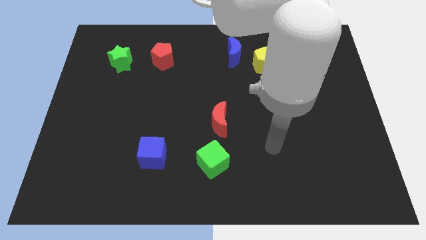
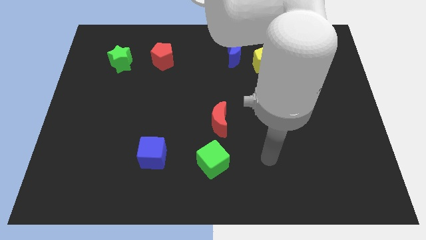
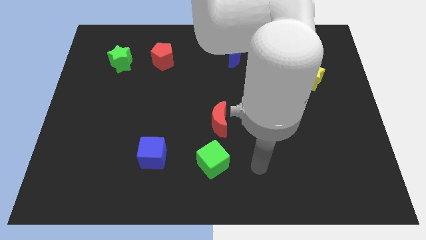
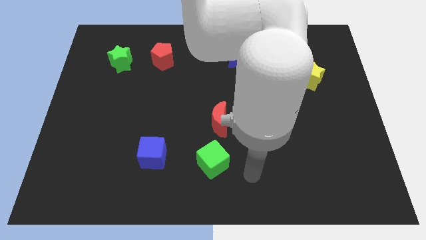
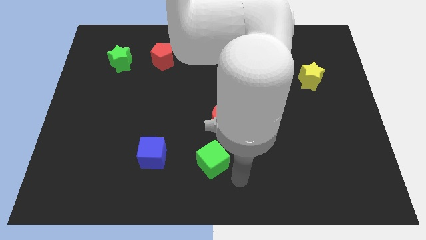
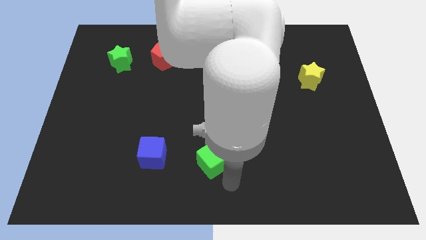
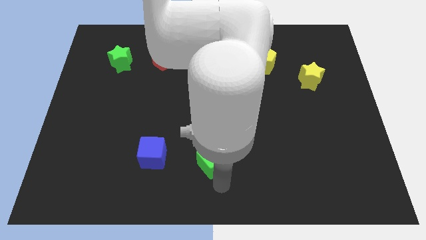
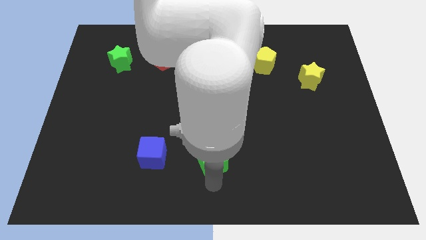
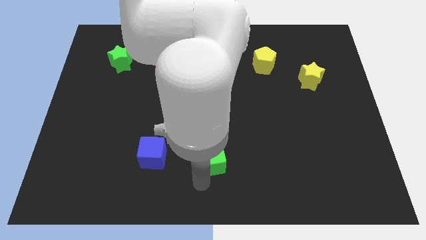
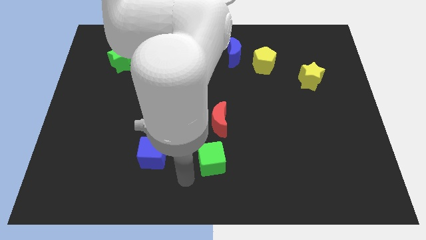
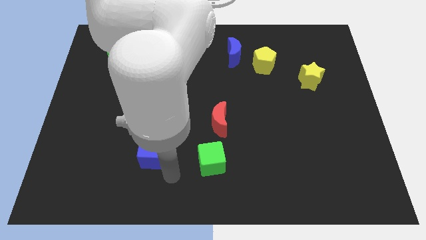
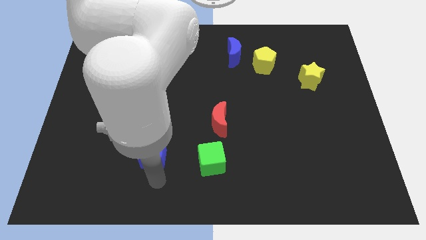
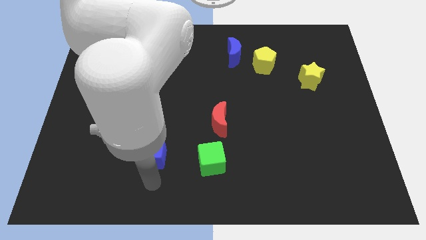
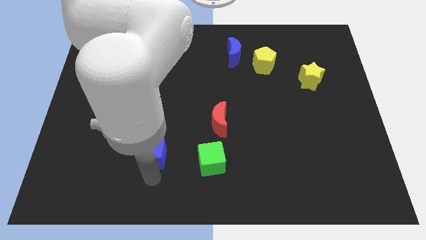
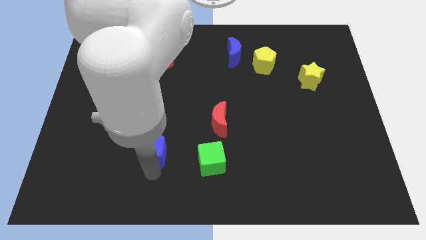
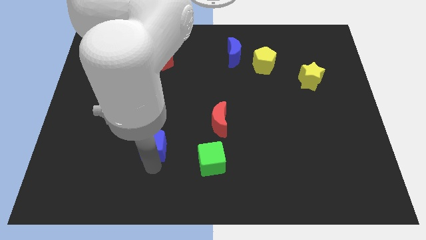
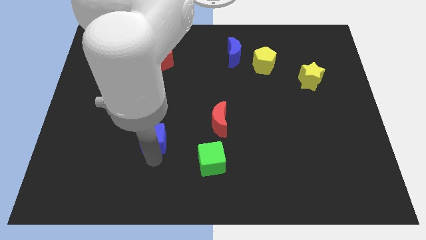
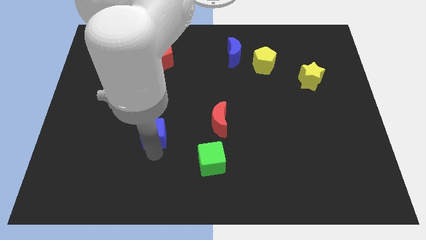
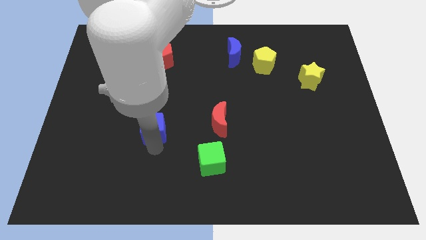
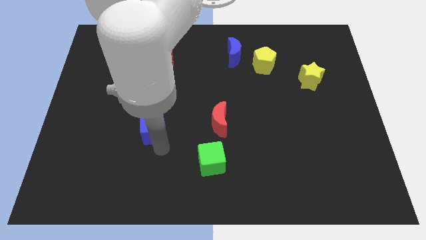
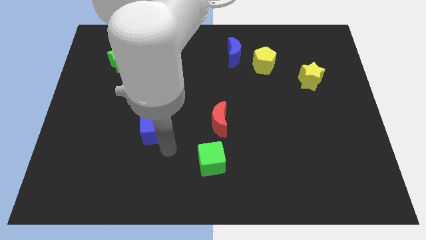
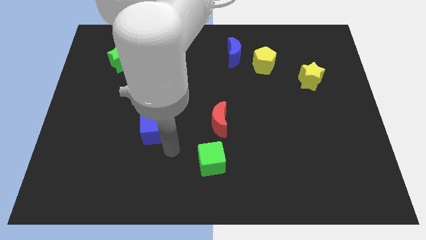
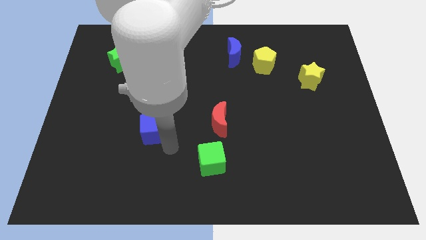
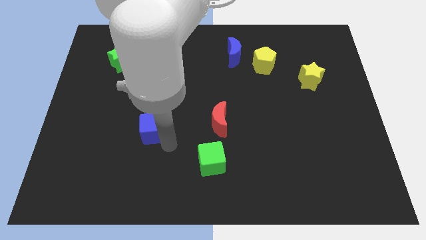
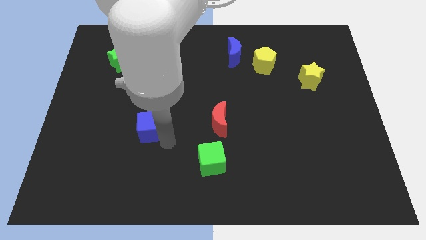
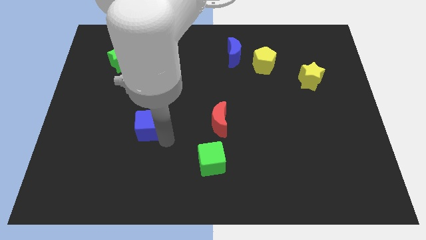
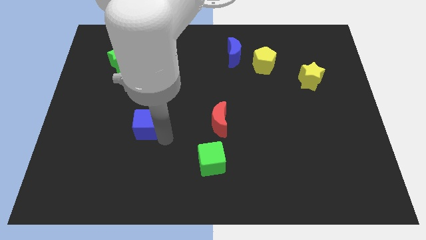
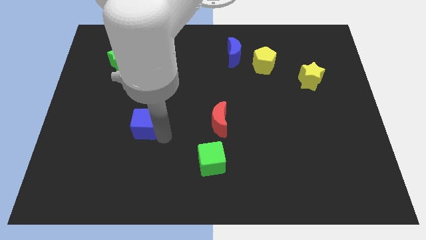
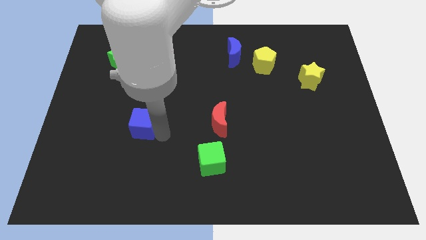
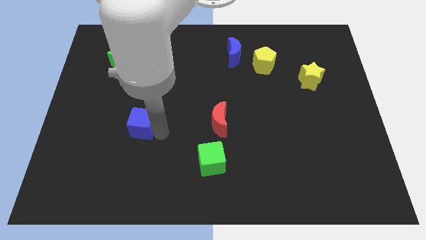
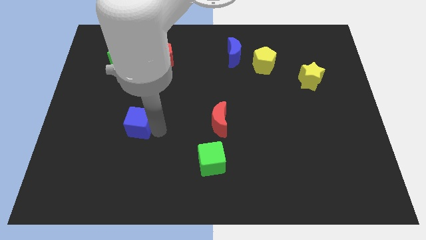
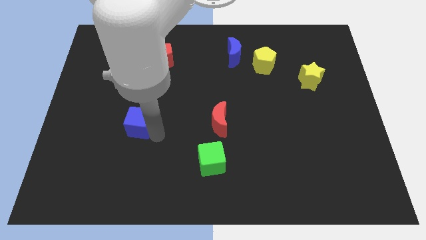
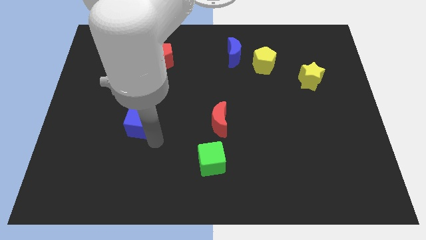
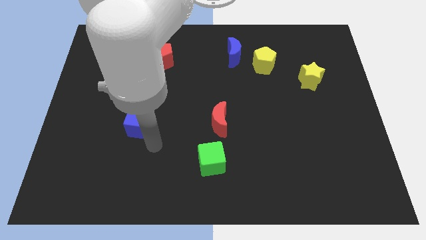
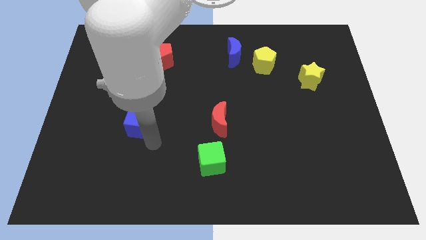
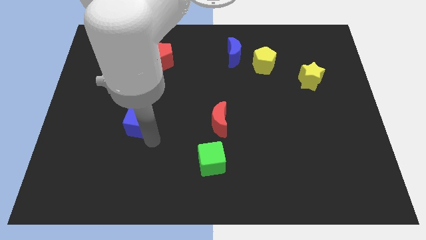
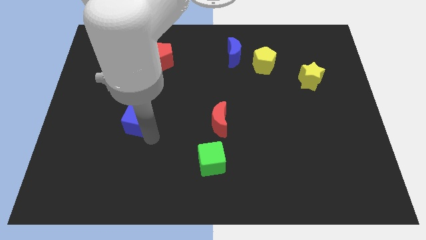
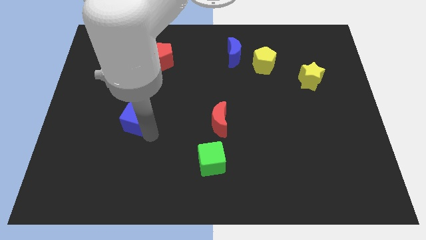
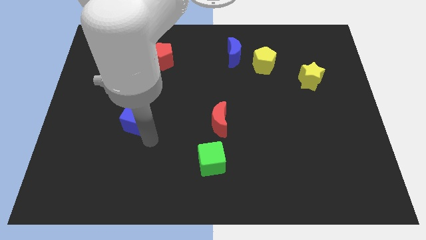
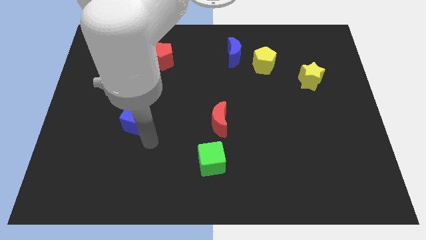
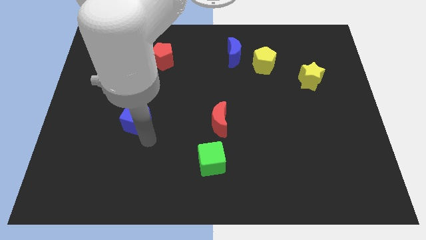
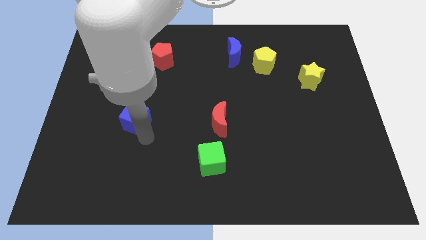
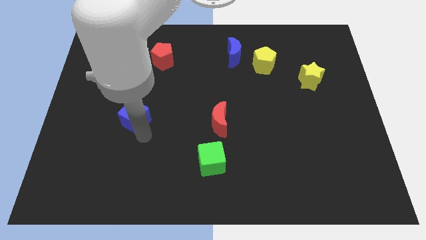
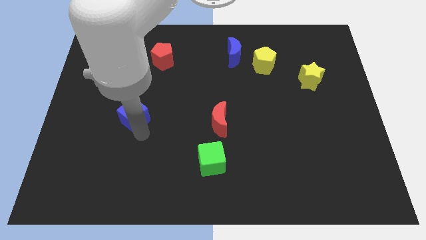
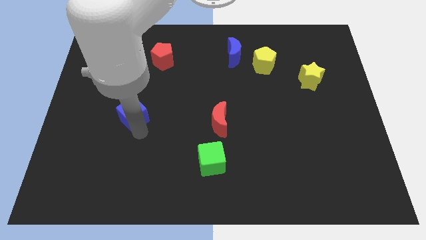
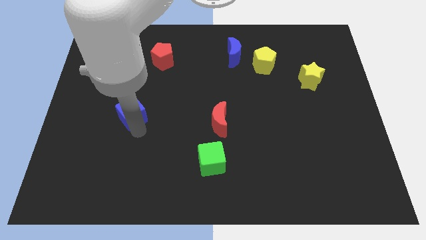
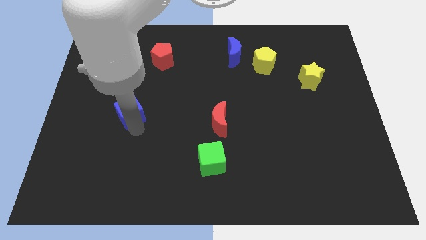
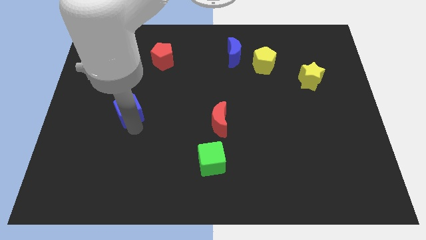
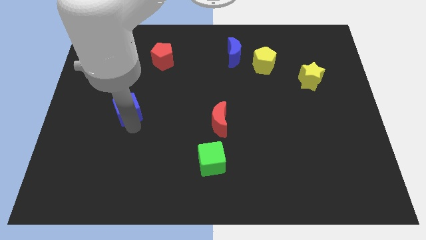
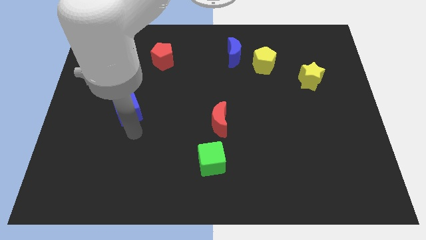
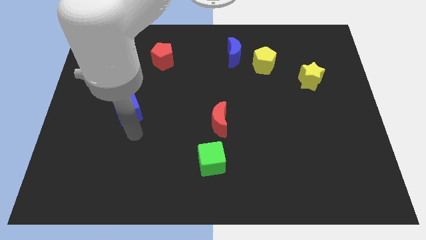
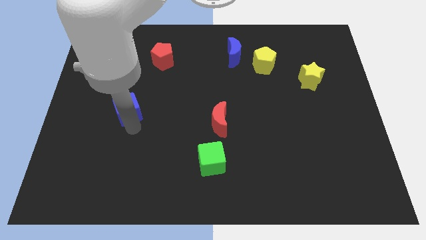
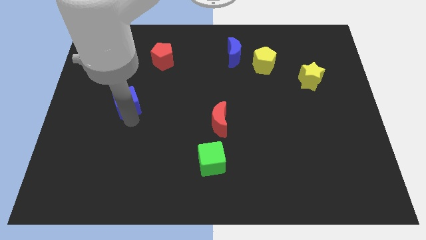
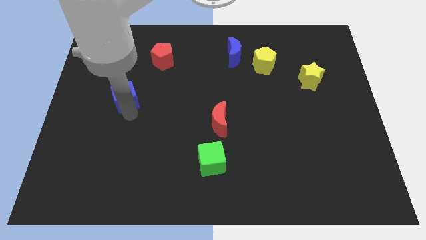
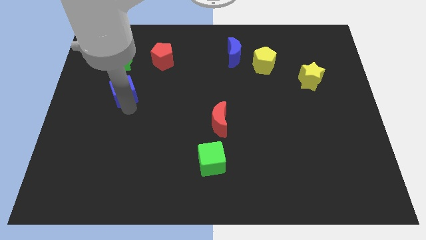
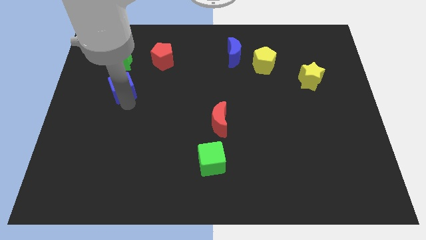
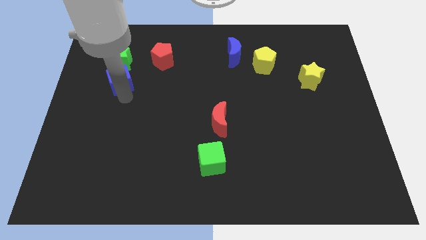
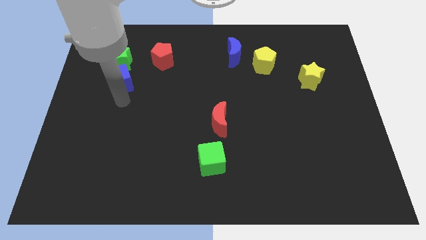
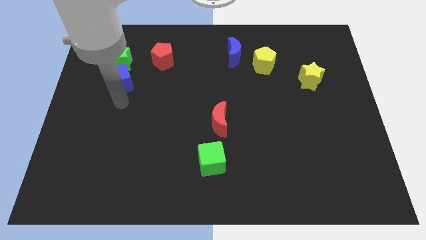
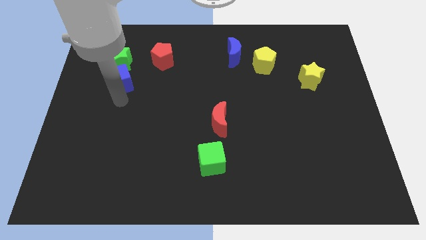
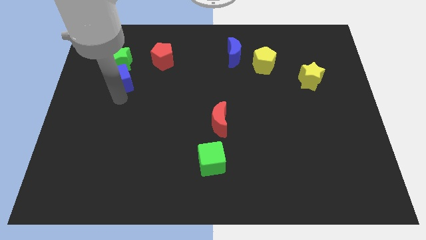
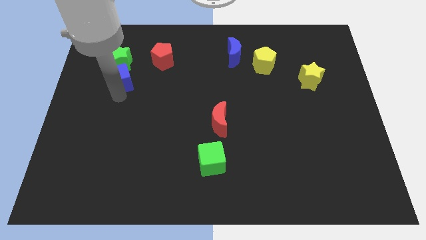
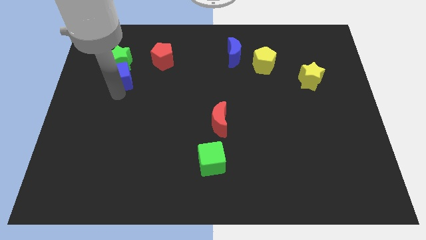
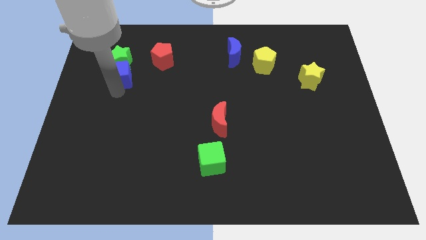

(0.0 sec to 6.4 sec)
put the blue cube towards the green star

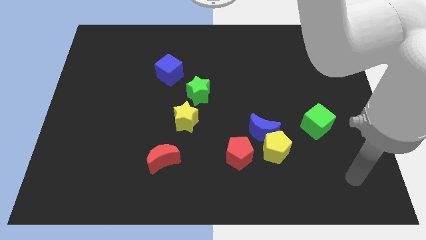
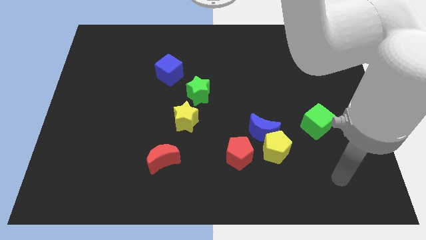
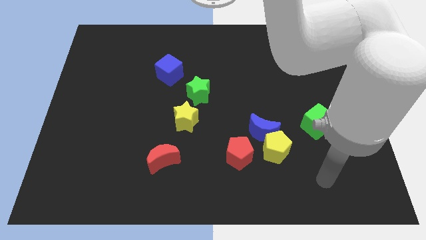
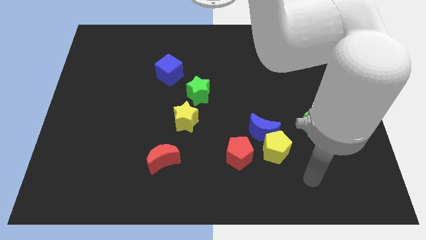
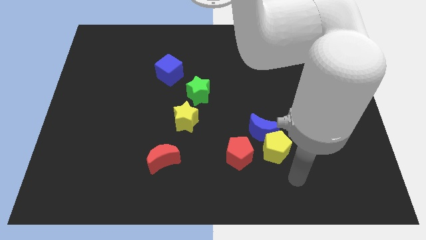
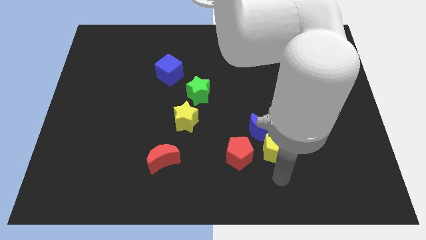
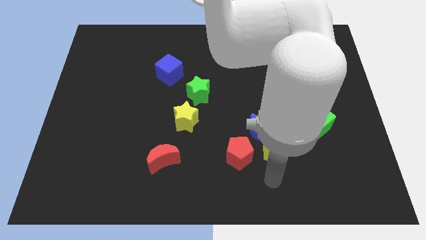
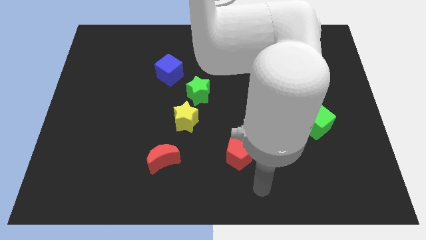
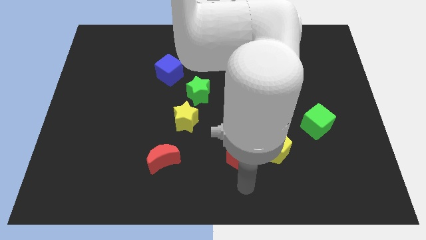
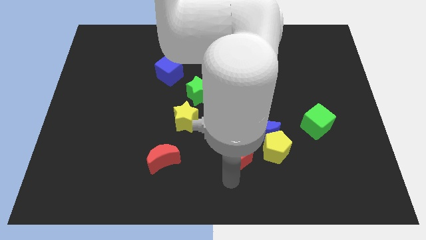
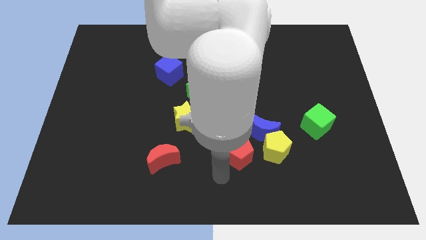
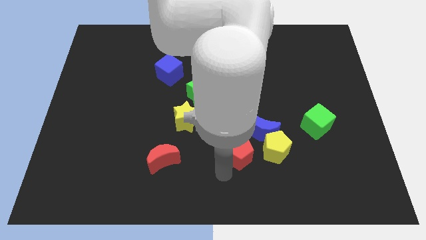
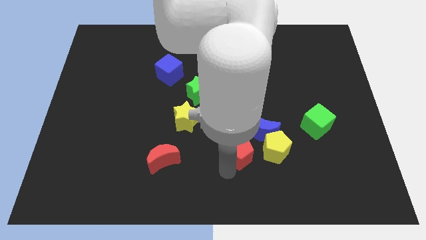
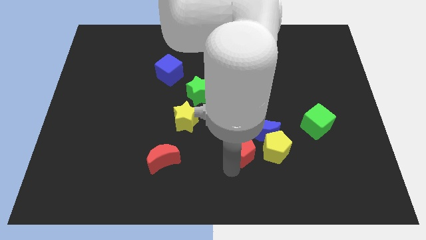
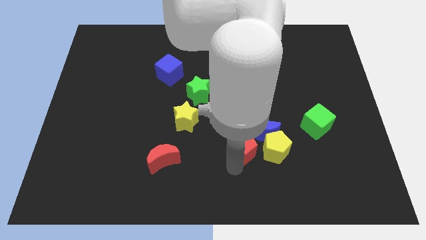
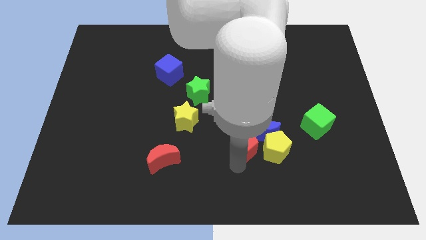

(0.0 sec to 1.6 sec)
move the red pentagon close to the blue moon
